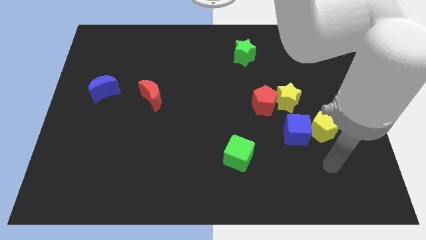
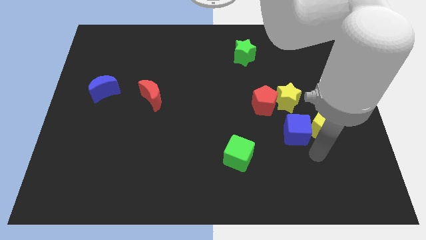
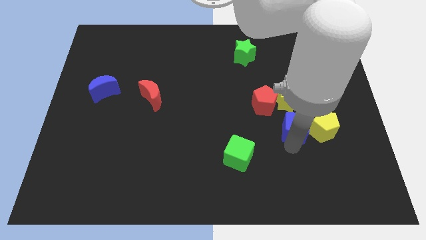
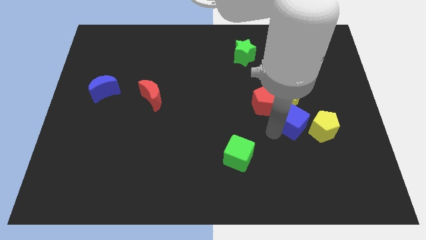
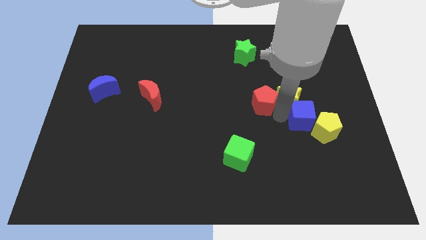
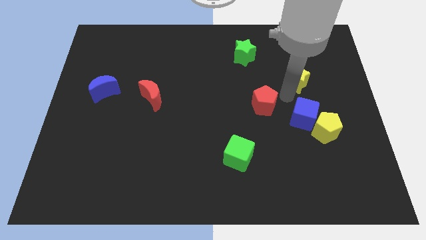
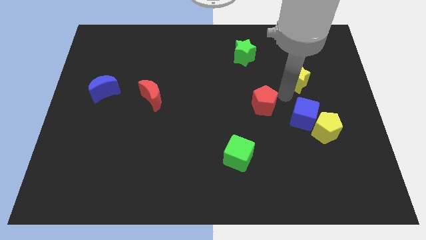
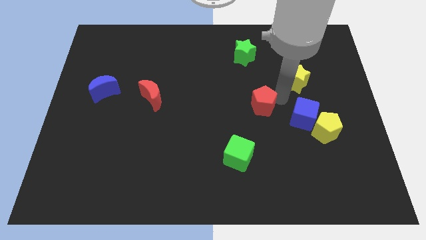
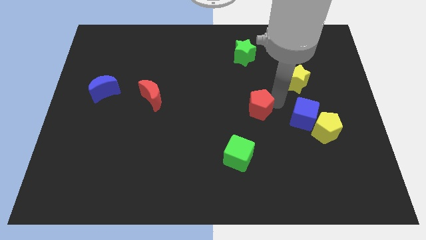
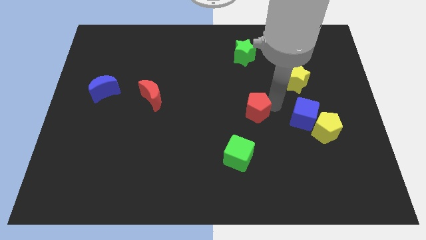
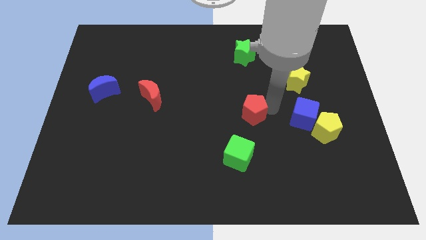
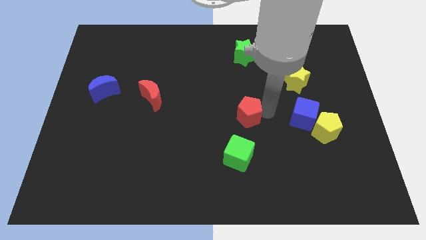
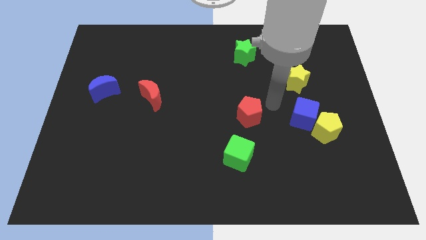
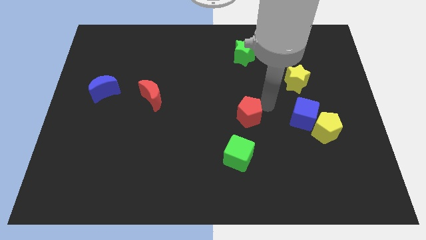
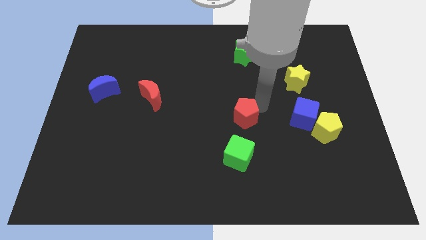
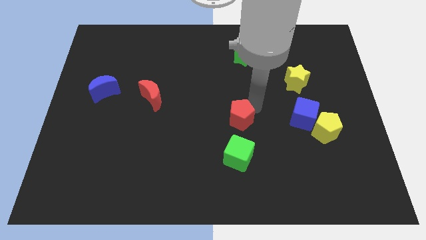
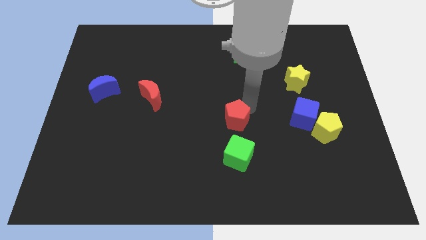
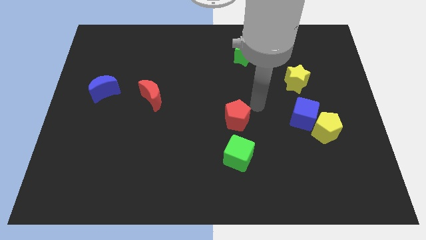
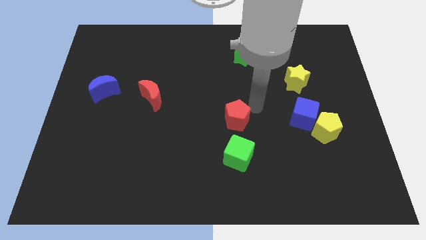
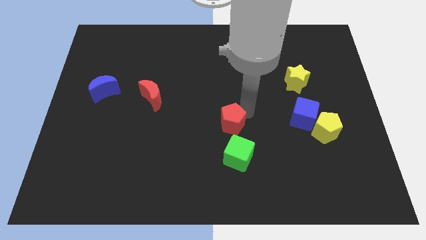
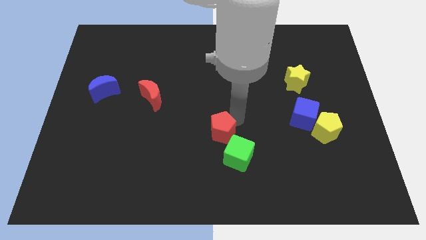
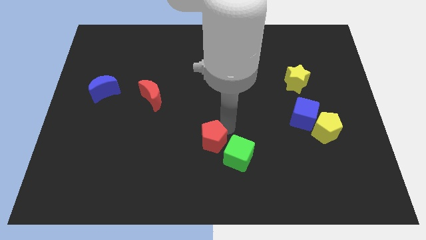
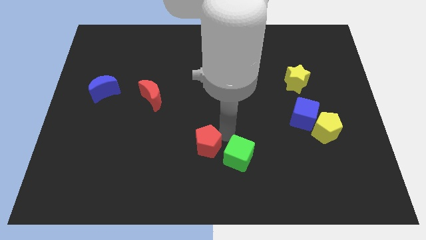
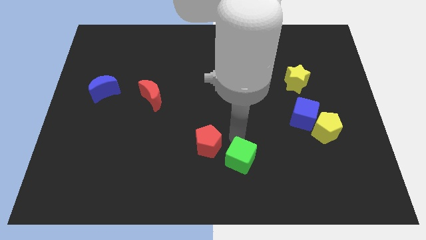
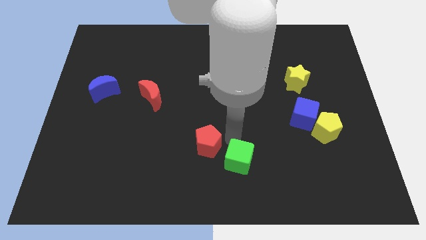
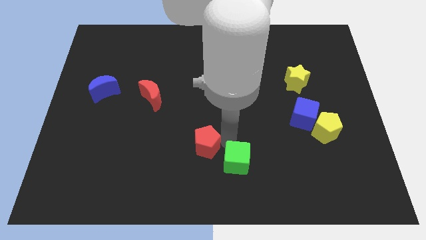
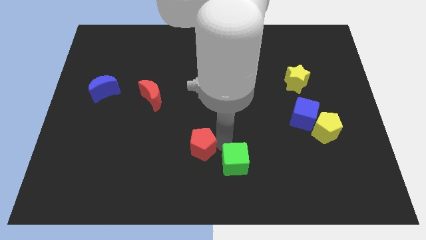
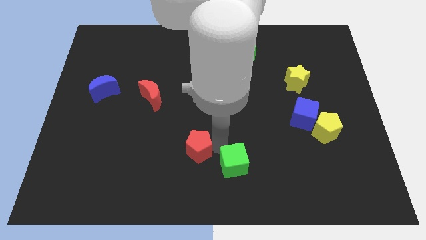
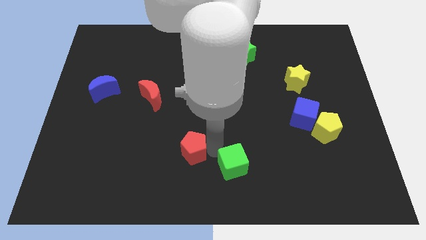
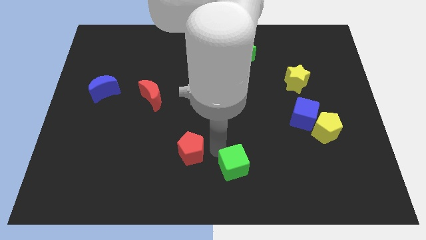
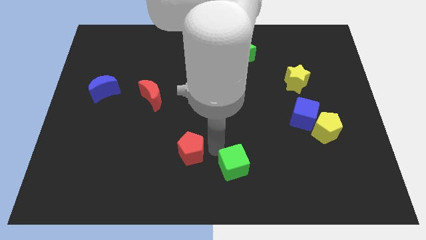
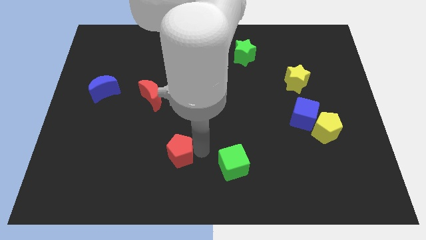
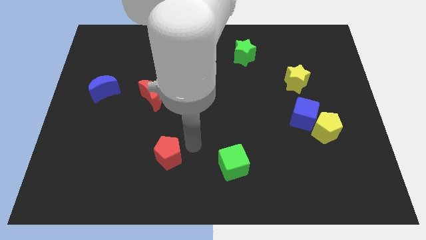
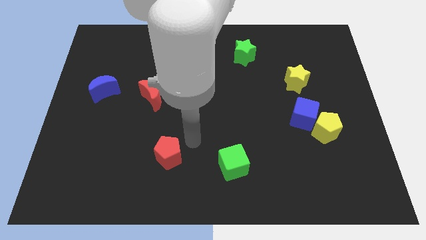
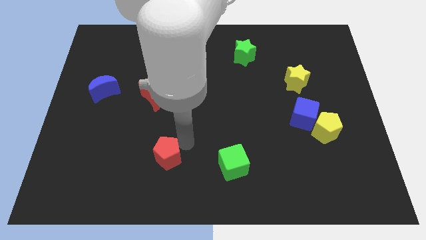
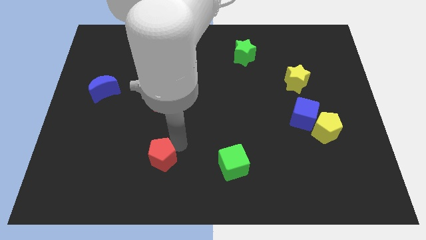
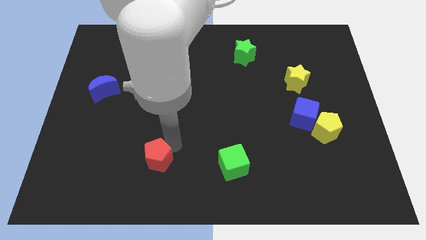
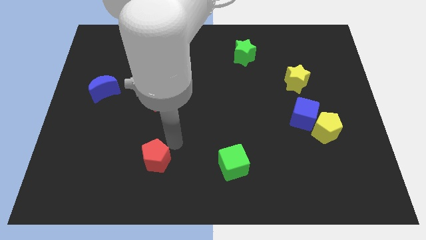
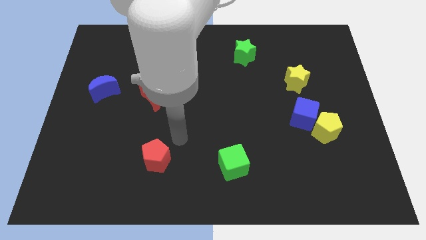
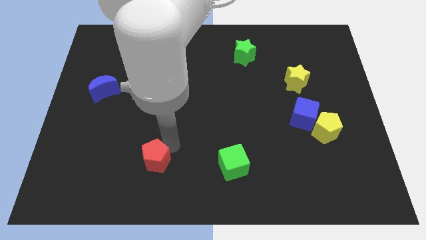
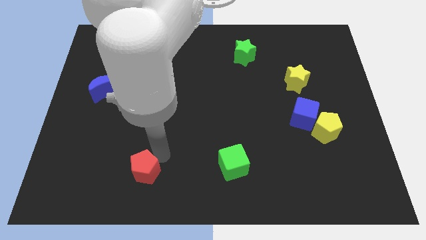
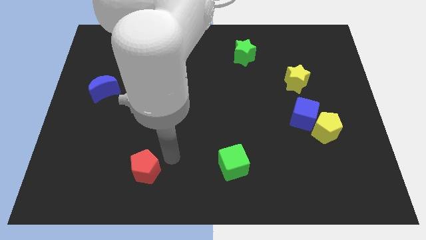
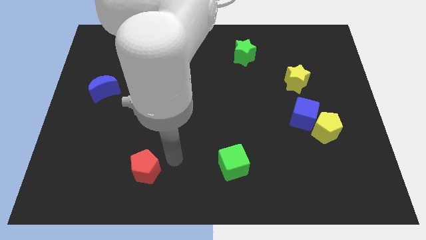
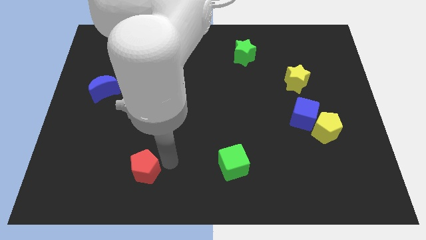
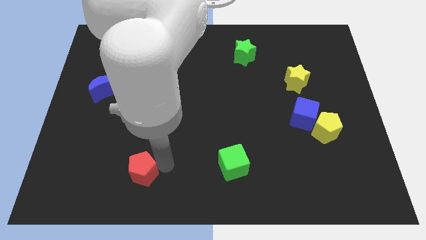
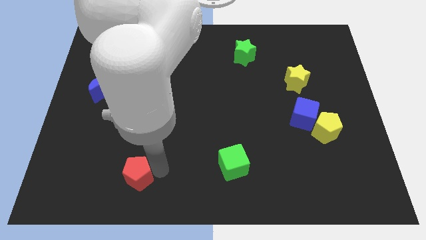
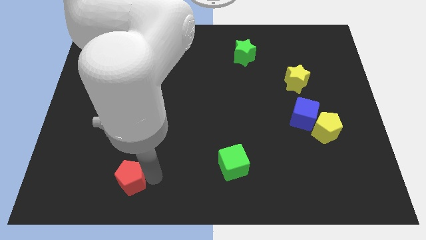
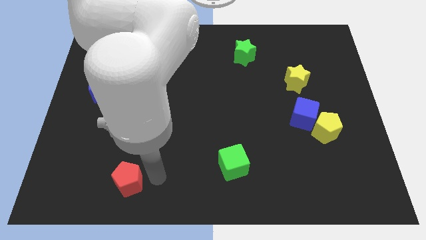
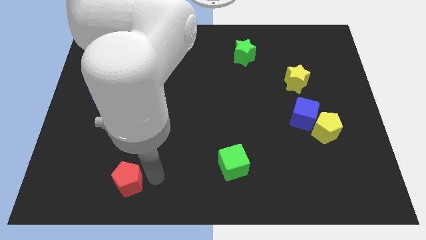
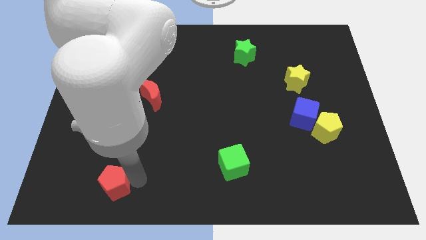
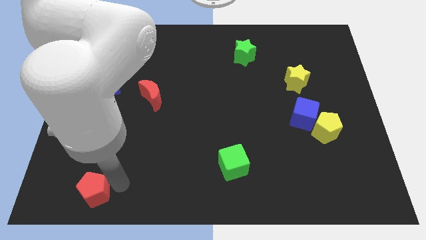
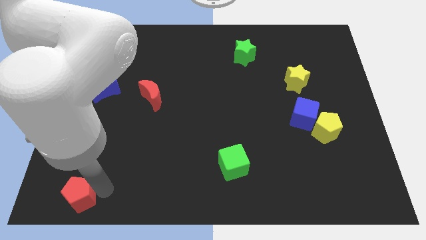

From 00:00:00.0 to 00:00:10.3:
put the red pentagon to the bottom left

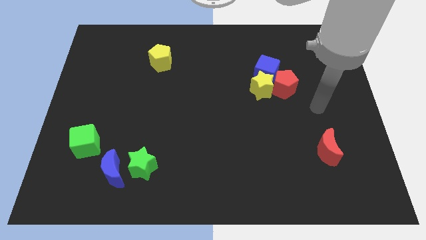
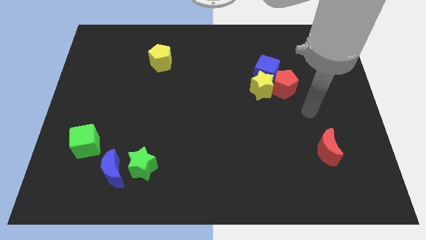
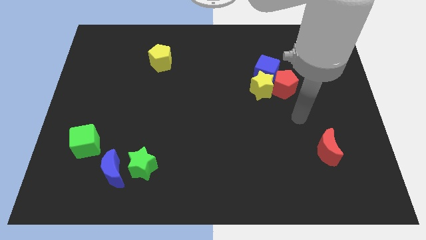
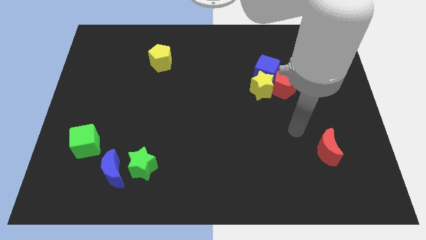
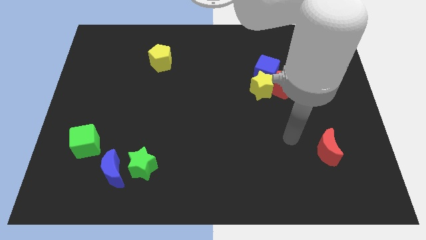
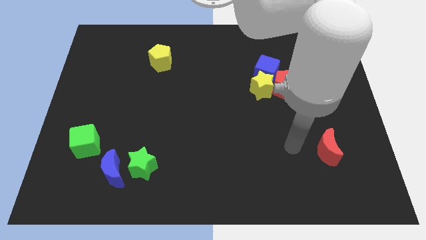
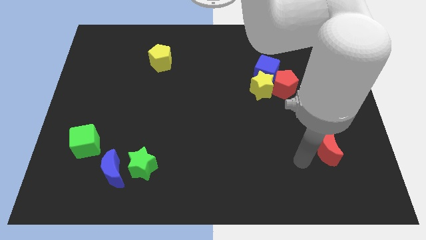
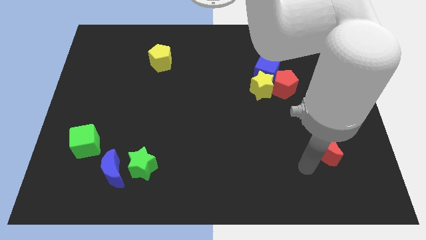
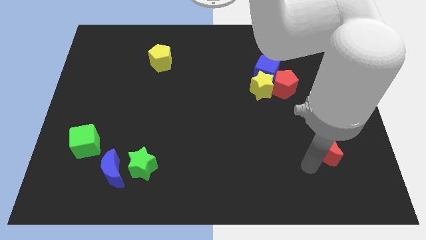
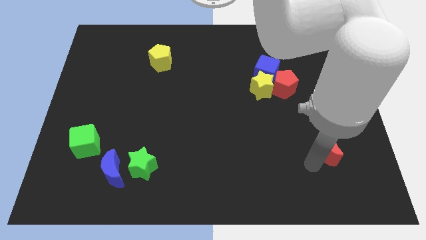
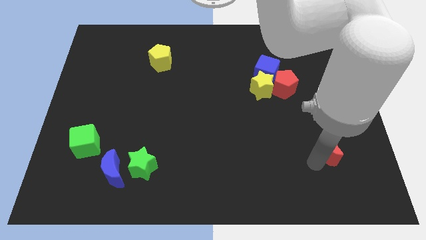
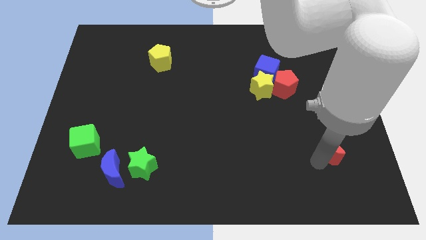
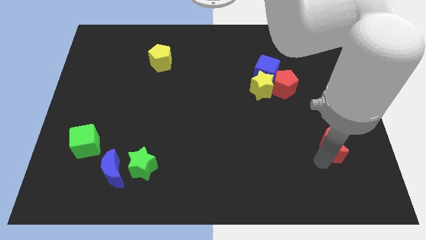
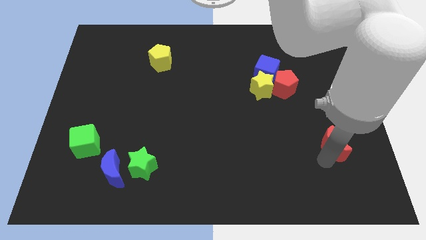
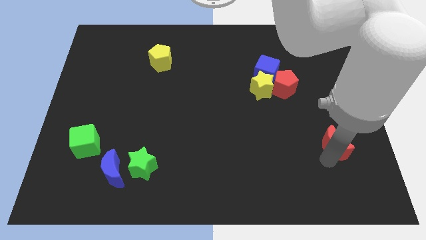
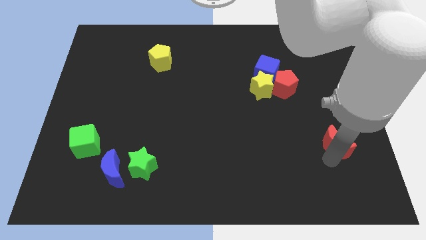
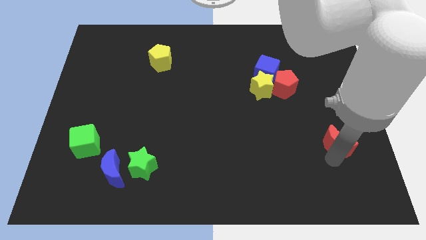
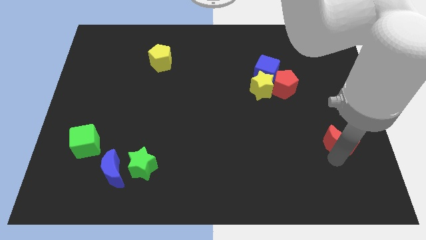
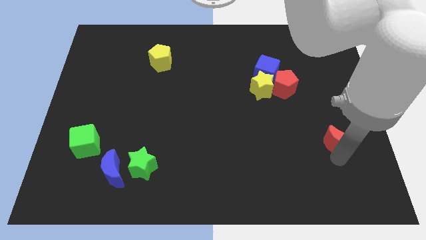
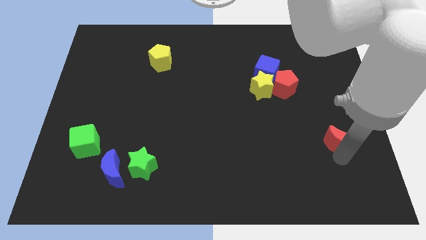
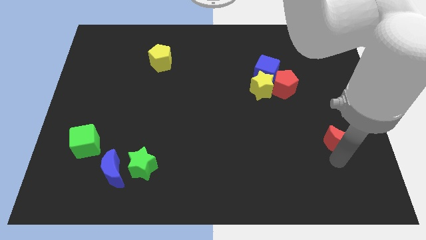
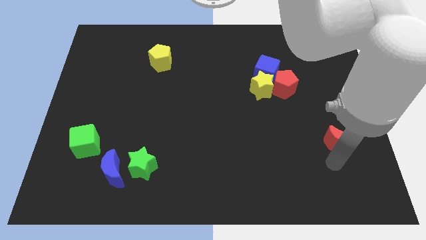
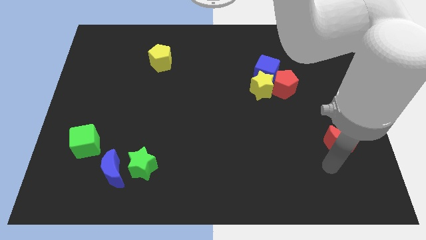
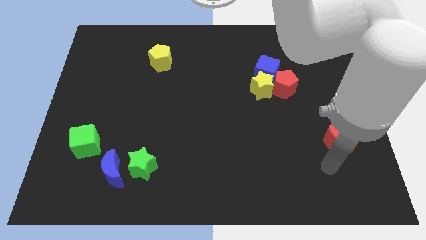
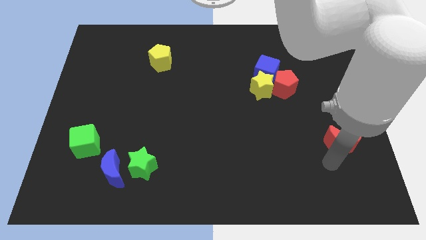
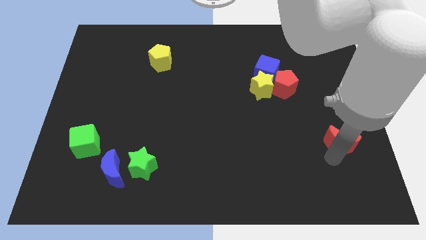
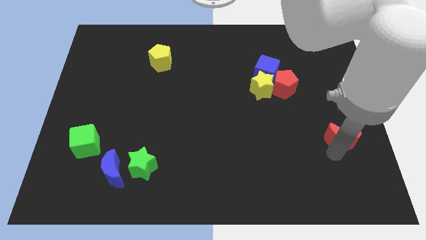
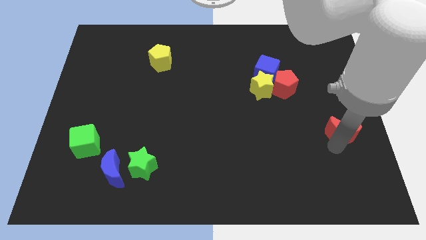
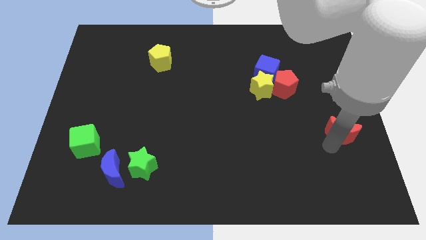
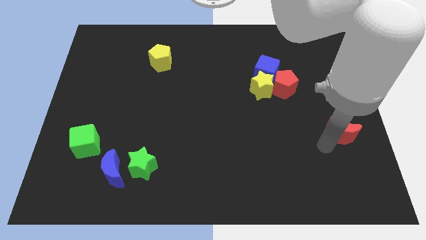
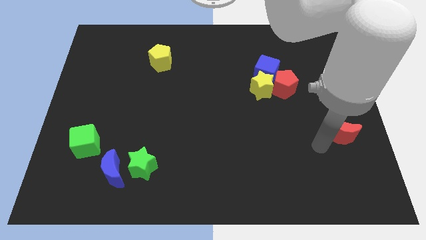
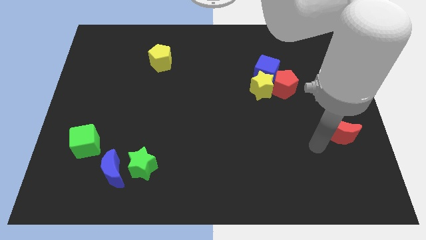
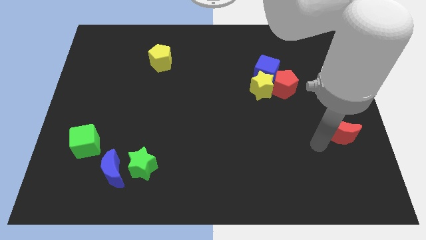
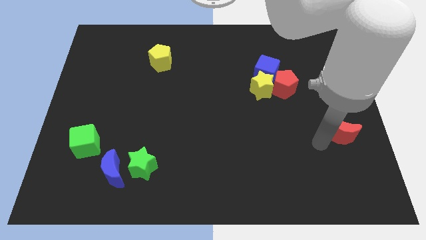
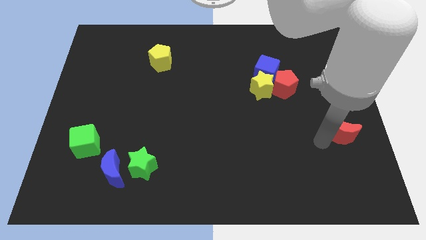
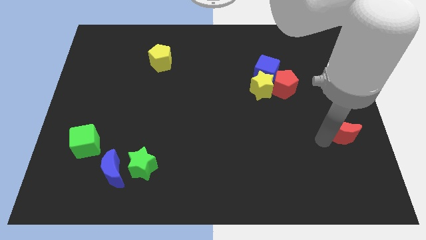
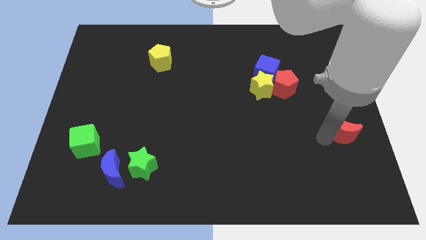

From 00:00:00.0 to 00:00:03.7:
slide the red moon to the center right
